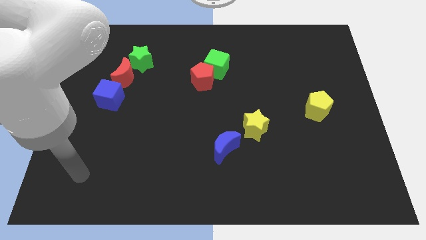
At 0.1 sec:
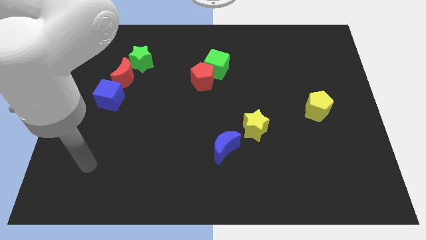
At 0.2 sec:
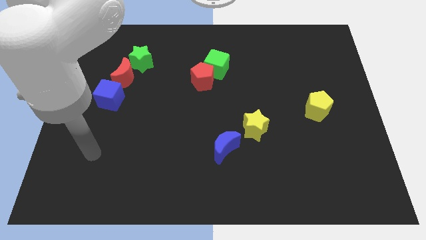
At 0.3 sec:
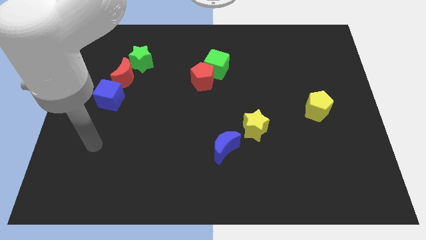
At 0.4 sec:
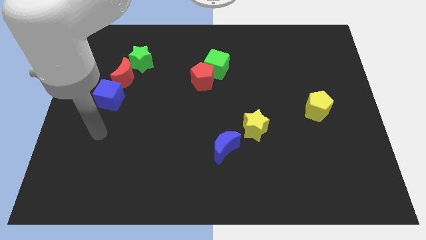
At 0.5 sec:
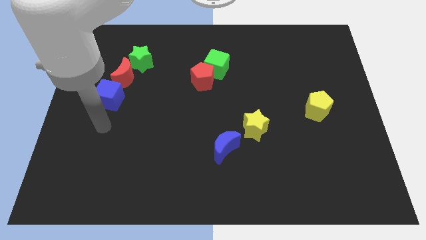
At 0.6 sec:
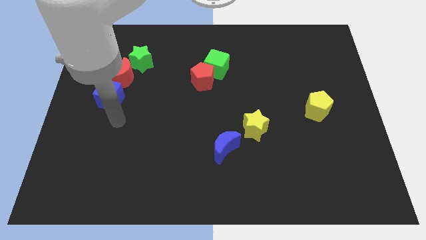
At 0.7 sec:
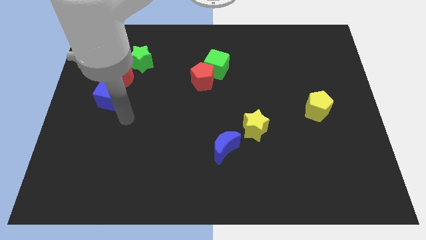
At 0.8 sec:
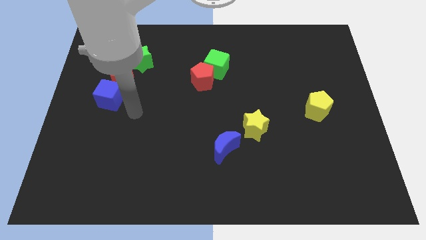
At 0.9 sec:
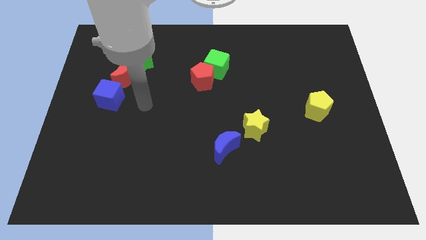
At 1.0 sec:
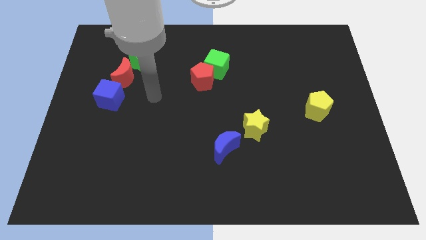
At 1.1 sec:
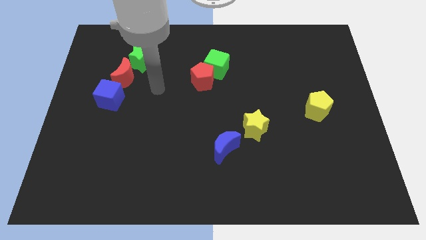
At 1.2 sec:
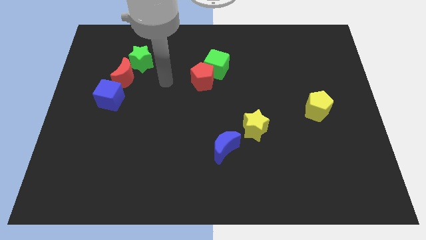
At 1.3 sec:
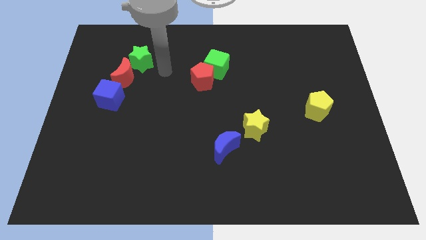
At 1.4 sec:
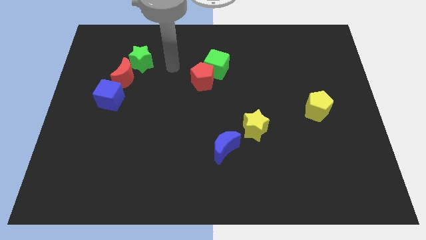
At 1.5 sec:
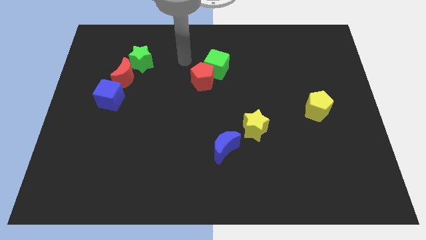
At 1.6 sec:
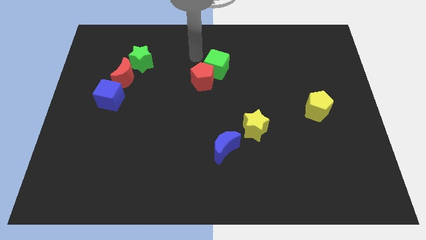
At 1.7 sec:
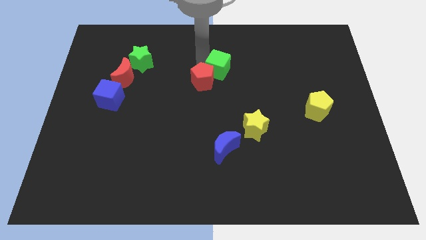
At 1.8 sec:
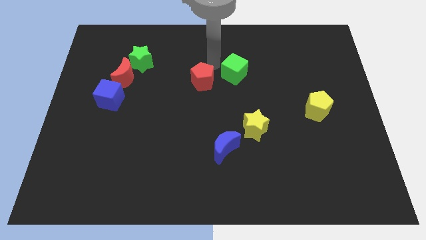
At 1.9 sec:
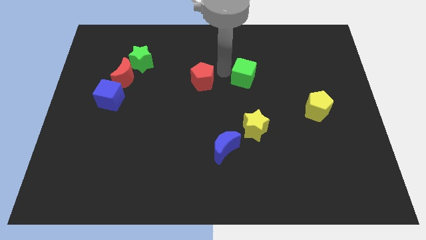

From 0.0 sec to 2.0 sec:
move the red pentagon away from the green cube

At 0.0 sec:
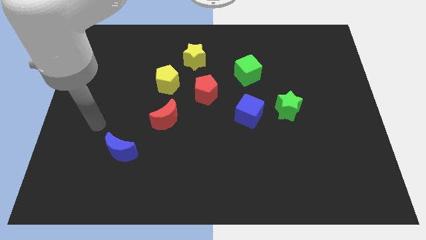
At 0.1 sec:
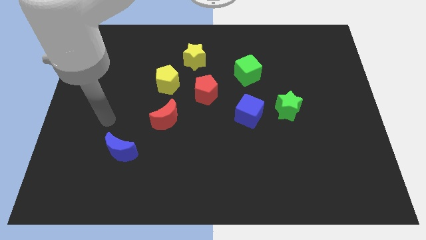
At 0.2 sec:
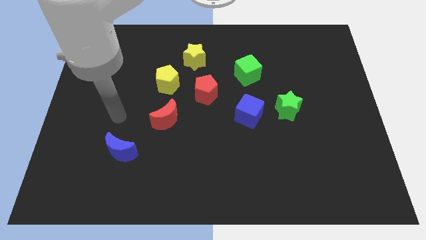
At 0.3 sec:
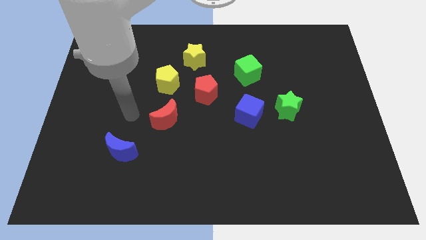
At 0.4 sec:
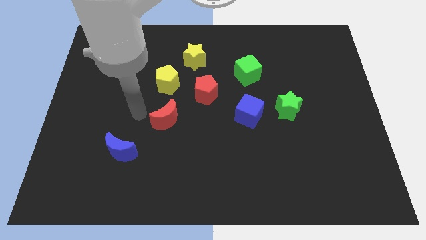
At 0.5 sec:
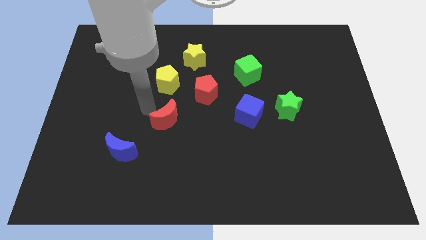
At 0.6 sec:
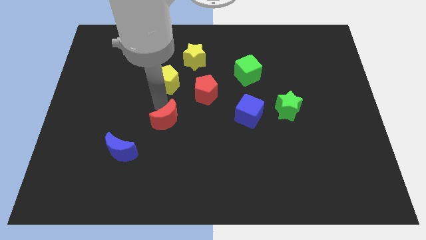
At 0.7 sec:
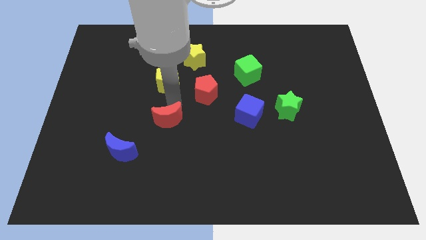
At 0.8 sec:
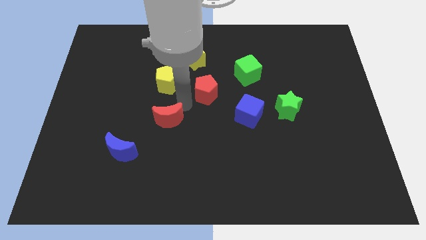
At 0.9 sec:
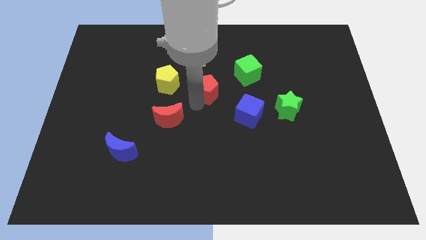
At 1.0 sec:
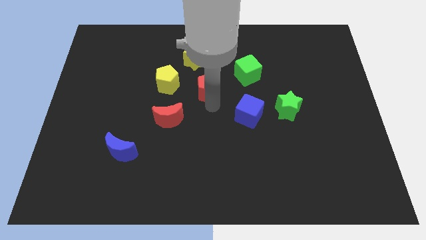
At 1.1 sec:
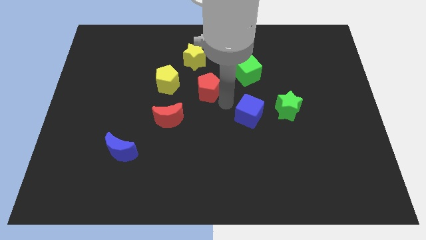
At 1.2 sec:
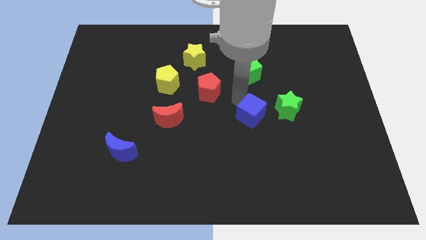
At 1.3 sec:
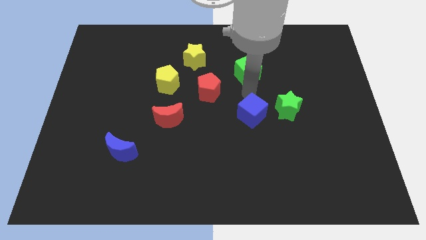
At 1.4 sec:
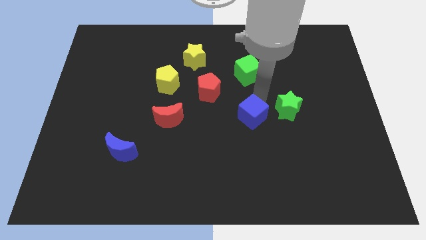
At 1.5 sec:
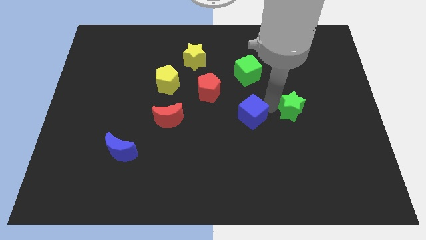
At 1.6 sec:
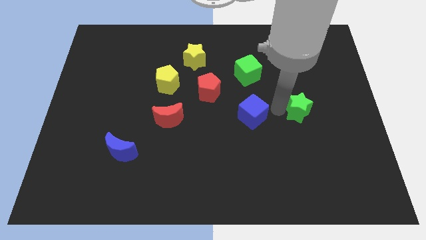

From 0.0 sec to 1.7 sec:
pull the blue cube apart from the green star

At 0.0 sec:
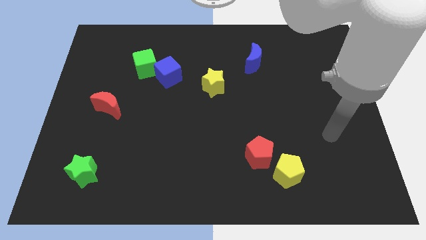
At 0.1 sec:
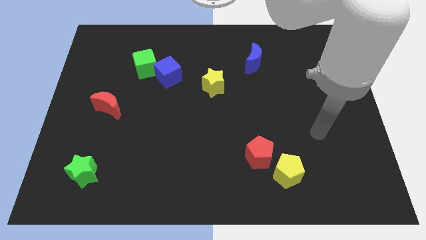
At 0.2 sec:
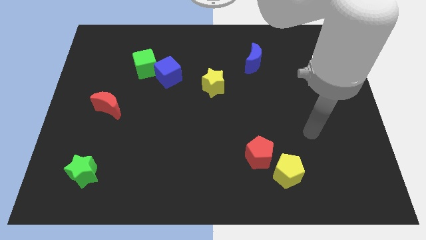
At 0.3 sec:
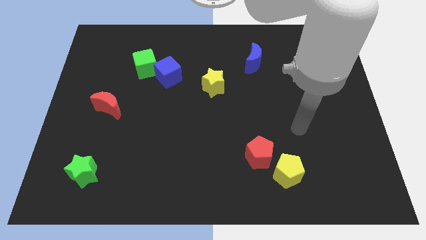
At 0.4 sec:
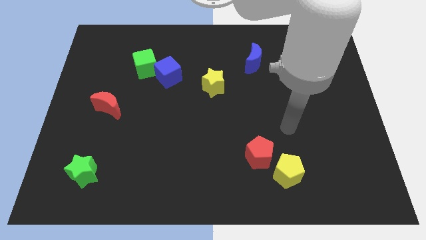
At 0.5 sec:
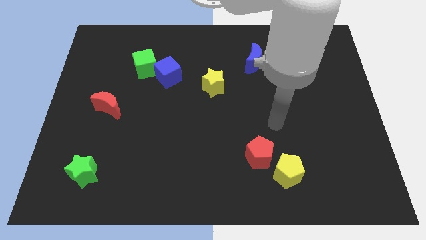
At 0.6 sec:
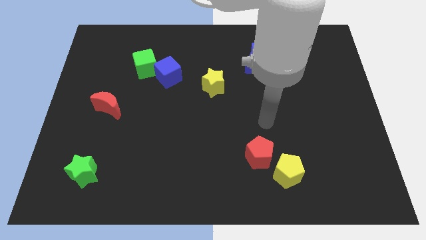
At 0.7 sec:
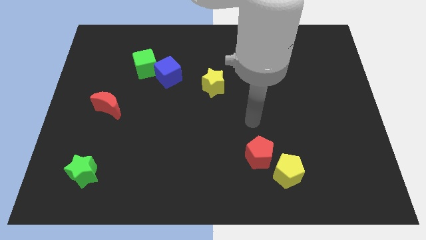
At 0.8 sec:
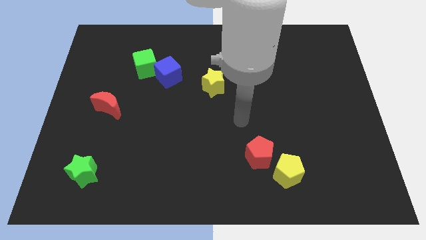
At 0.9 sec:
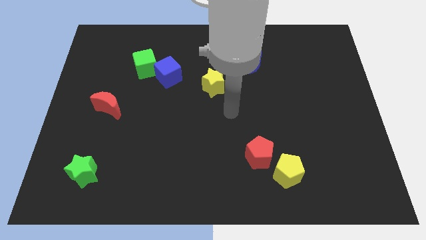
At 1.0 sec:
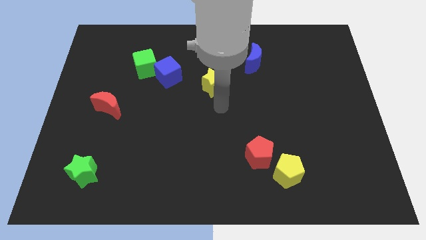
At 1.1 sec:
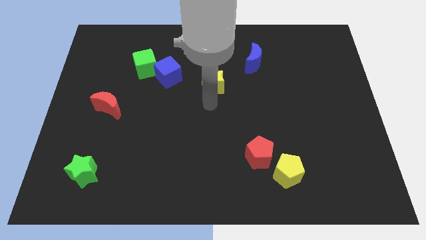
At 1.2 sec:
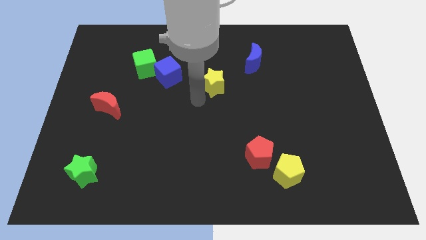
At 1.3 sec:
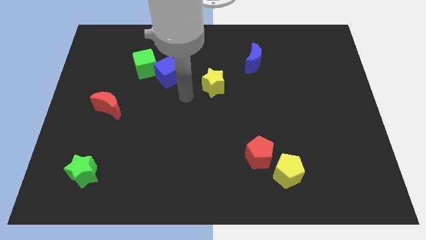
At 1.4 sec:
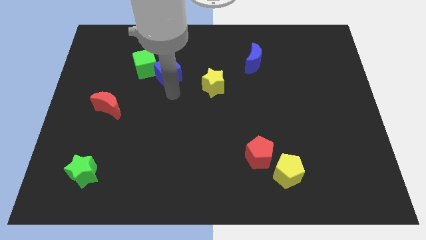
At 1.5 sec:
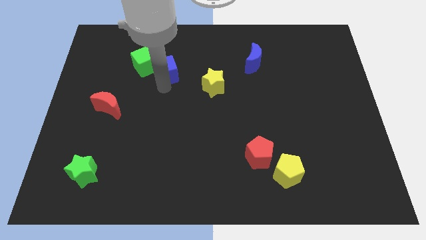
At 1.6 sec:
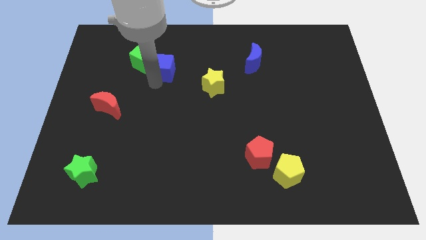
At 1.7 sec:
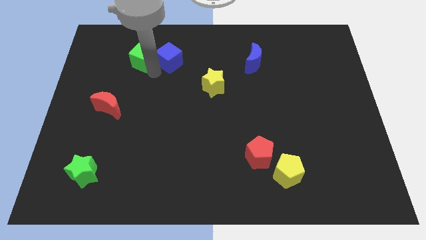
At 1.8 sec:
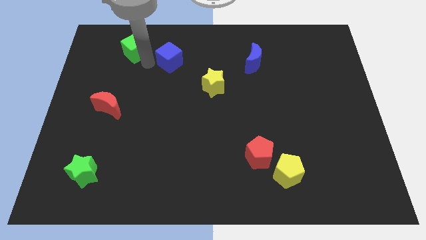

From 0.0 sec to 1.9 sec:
pull the blue cube apart from the green cube

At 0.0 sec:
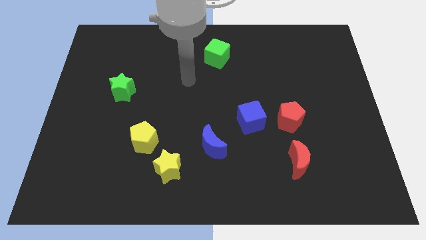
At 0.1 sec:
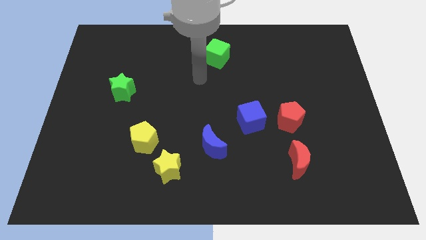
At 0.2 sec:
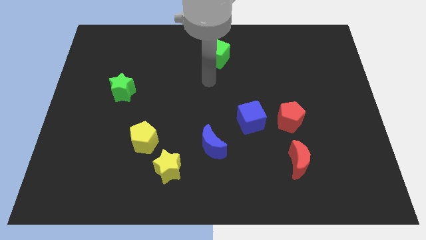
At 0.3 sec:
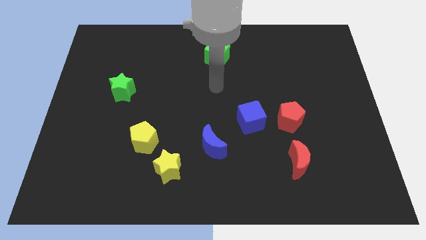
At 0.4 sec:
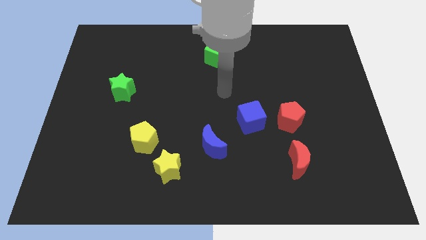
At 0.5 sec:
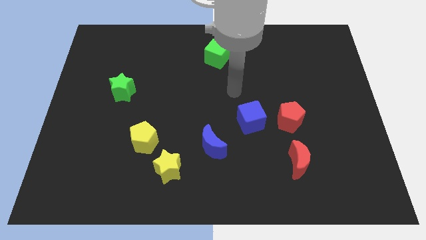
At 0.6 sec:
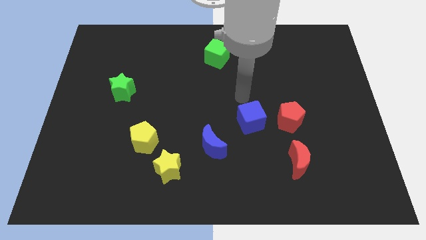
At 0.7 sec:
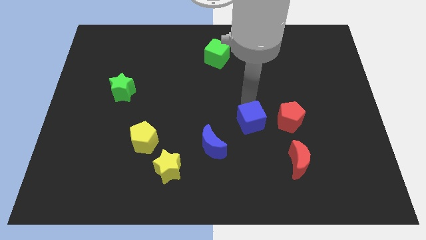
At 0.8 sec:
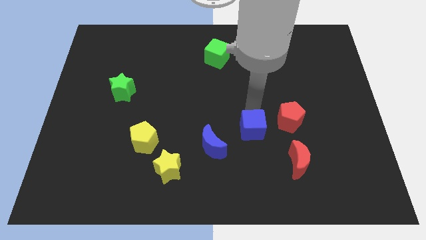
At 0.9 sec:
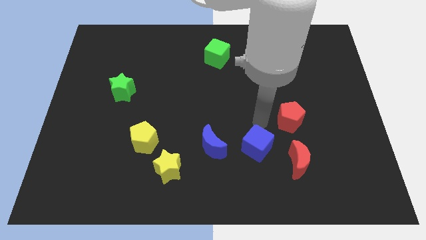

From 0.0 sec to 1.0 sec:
separate the red pentagon from the blue cube

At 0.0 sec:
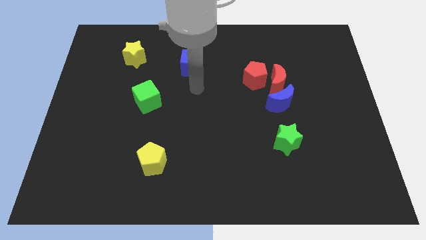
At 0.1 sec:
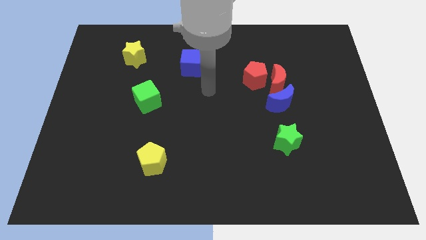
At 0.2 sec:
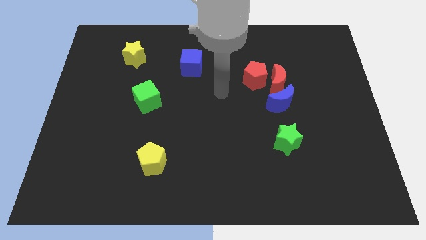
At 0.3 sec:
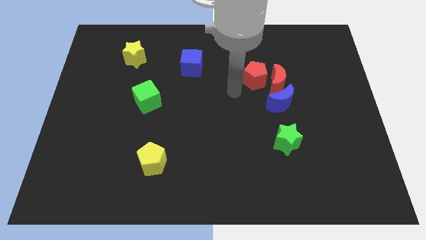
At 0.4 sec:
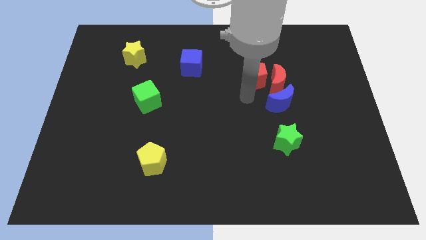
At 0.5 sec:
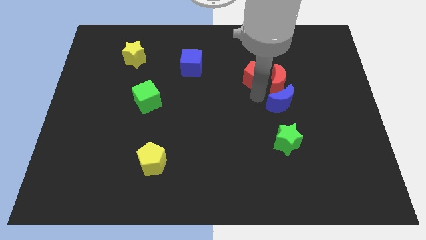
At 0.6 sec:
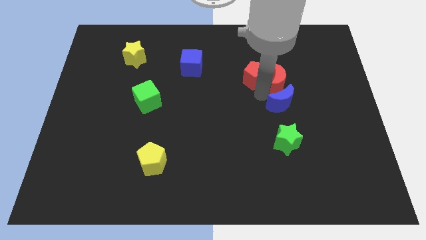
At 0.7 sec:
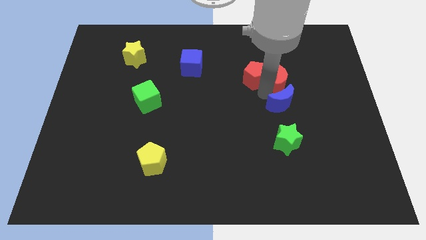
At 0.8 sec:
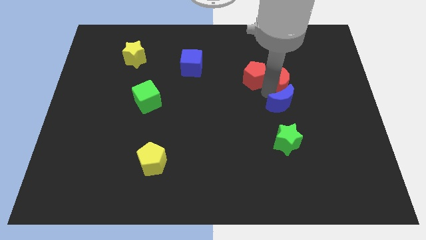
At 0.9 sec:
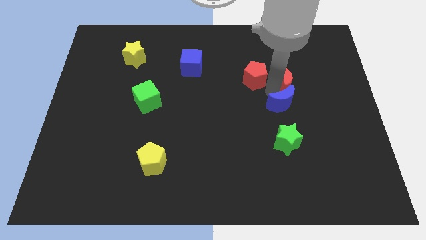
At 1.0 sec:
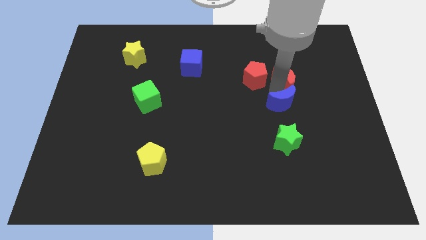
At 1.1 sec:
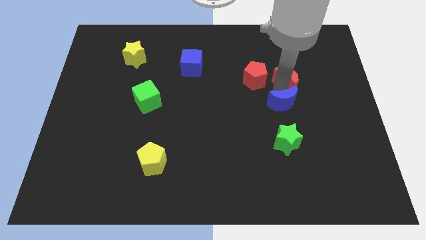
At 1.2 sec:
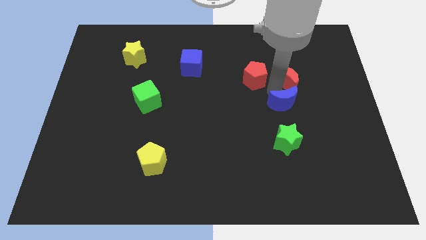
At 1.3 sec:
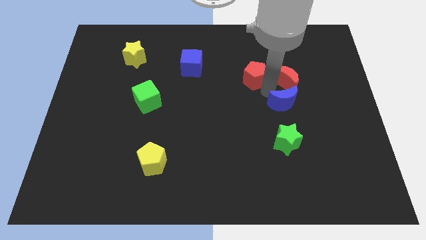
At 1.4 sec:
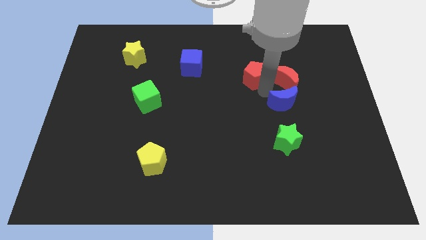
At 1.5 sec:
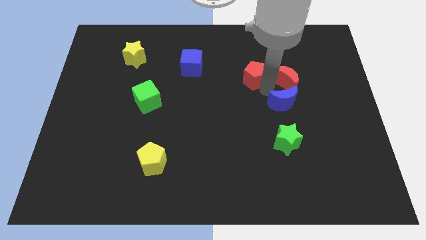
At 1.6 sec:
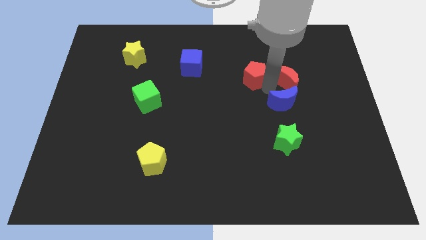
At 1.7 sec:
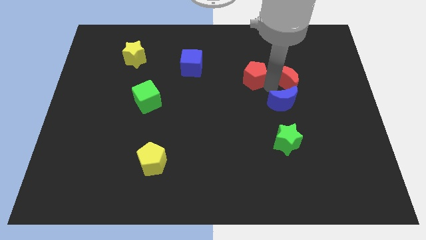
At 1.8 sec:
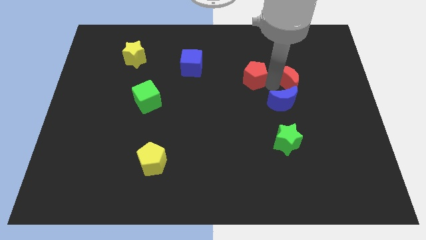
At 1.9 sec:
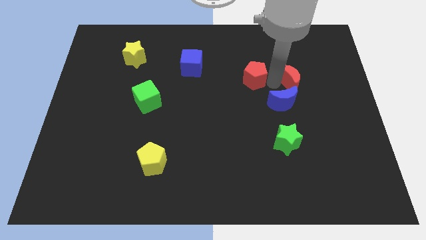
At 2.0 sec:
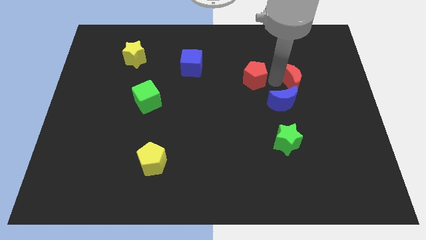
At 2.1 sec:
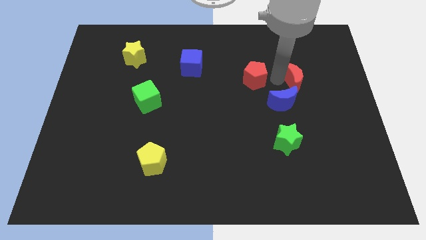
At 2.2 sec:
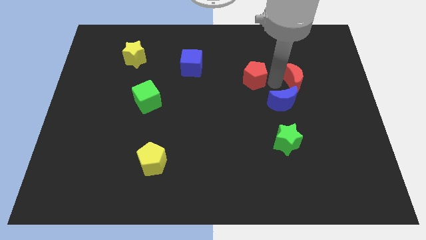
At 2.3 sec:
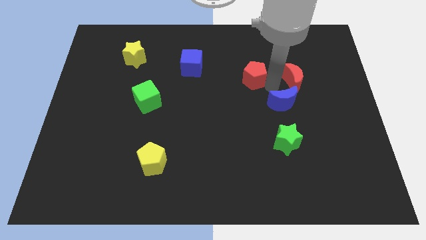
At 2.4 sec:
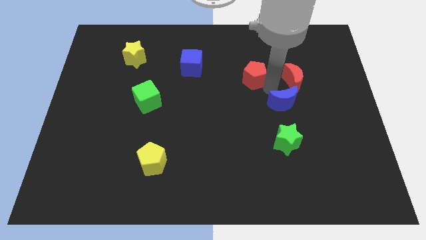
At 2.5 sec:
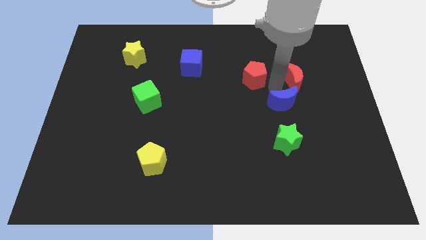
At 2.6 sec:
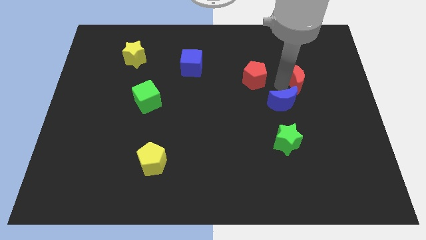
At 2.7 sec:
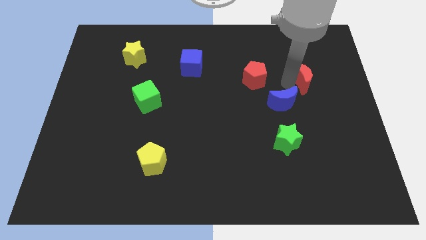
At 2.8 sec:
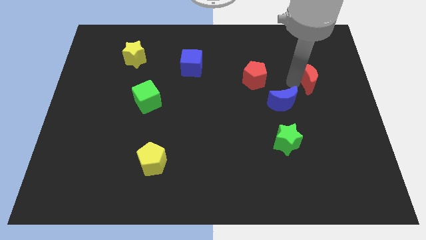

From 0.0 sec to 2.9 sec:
move the red moon away from the red pentagon and blue moon
